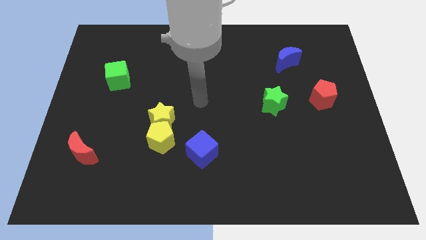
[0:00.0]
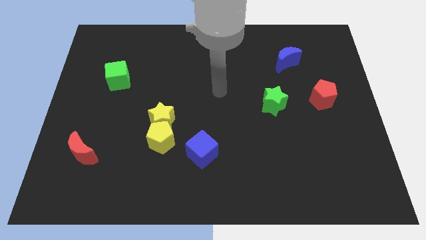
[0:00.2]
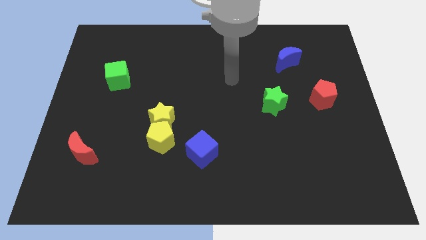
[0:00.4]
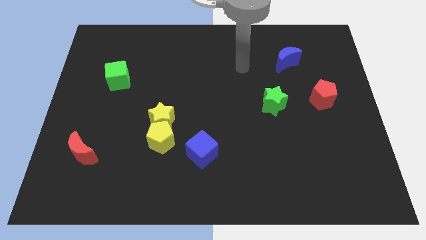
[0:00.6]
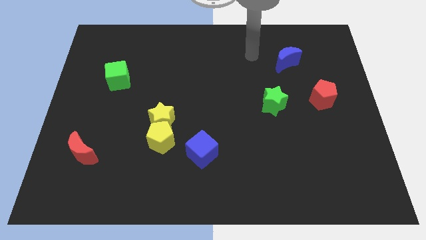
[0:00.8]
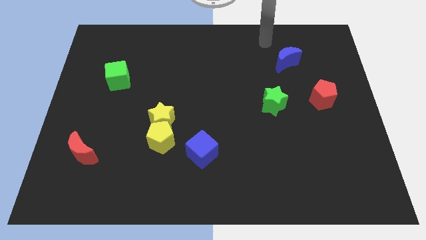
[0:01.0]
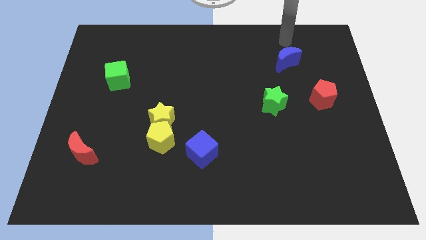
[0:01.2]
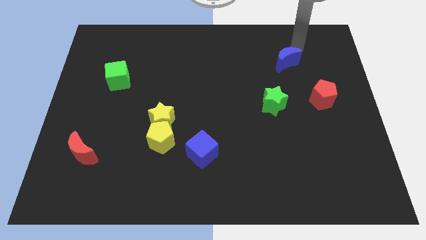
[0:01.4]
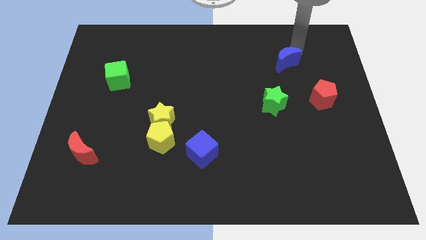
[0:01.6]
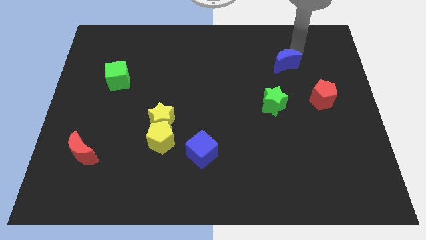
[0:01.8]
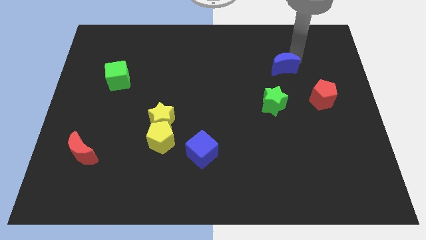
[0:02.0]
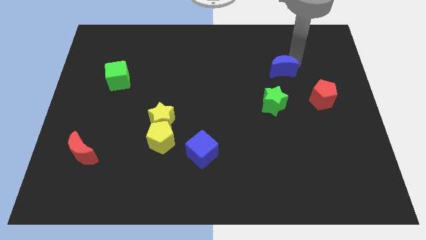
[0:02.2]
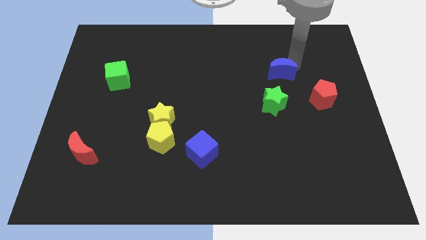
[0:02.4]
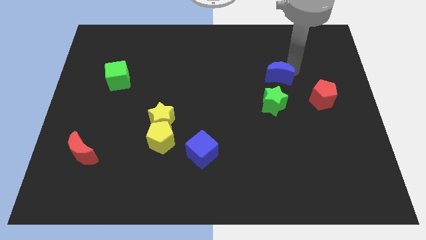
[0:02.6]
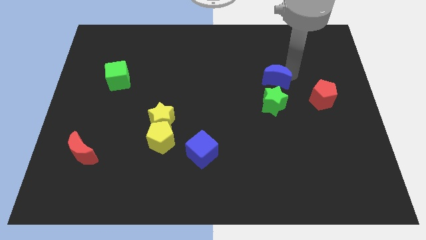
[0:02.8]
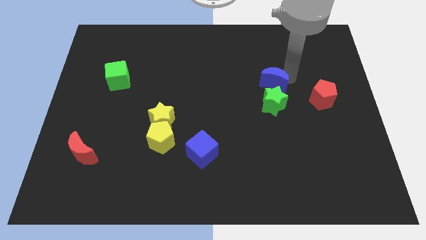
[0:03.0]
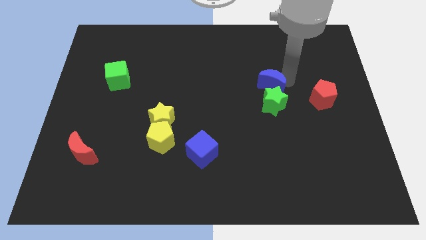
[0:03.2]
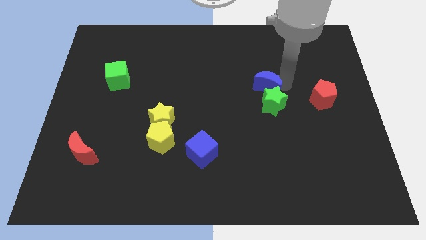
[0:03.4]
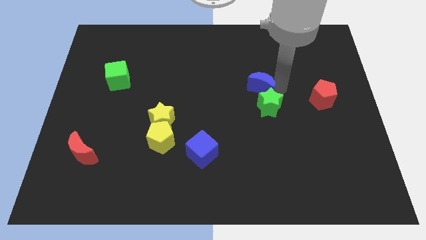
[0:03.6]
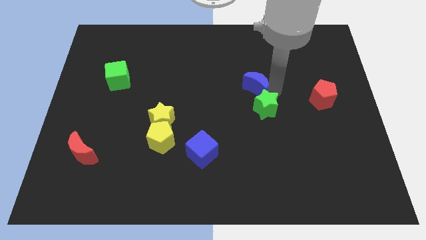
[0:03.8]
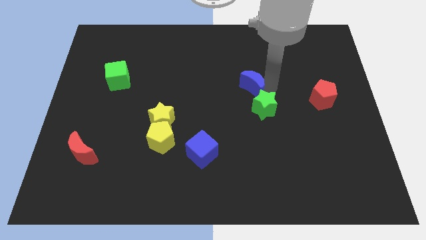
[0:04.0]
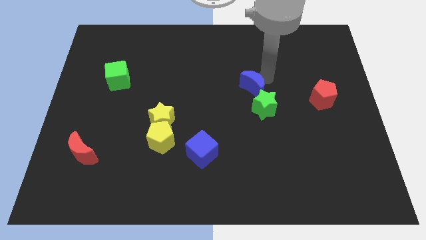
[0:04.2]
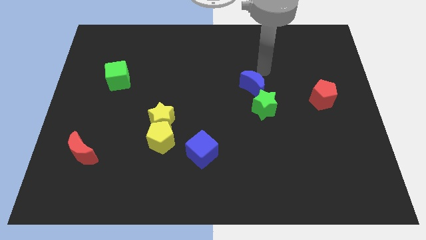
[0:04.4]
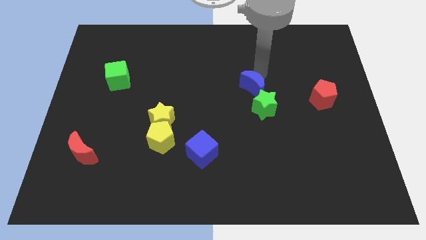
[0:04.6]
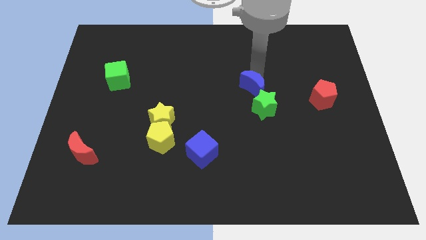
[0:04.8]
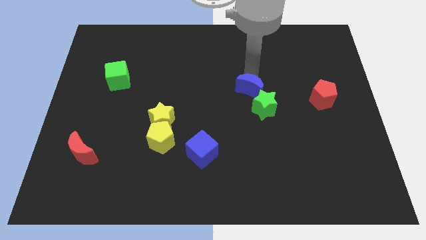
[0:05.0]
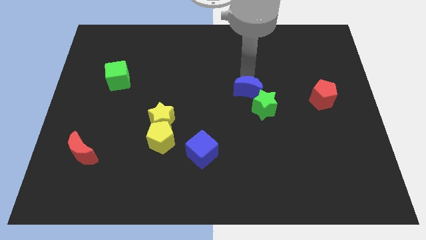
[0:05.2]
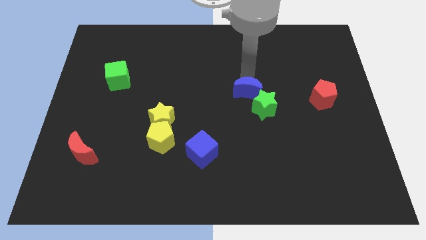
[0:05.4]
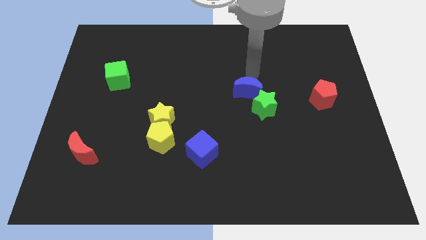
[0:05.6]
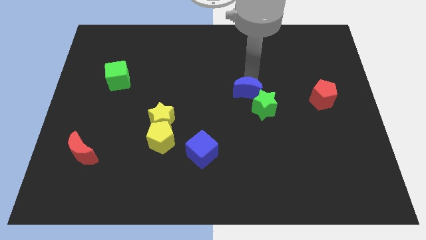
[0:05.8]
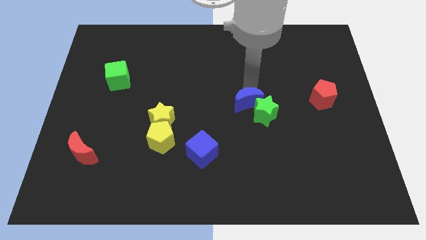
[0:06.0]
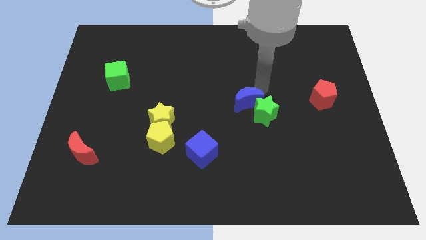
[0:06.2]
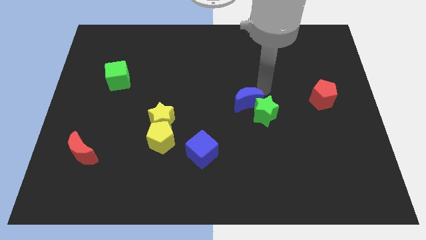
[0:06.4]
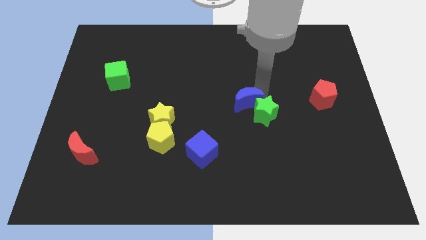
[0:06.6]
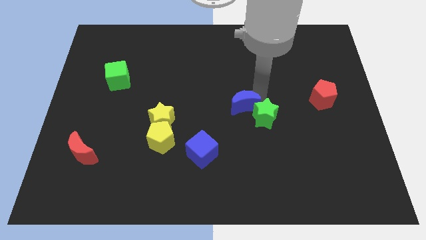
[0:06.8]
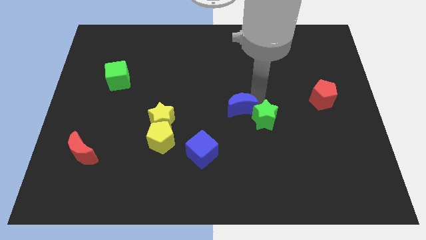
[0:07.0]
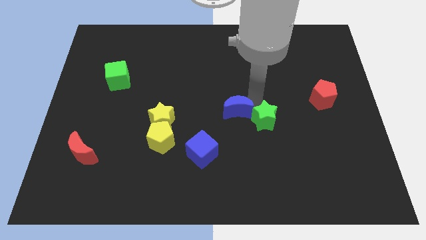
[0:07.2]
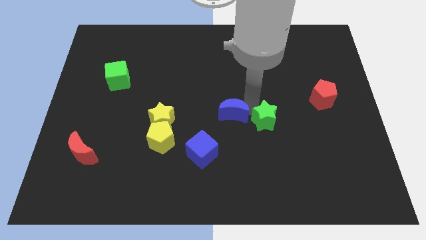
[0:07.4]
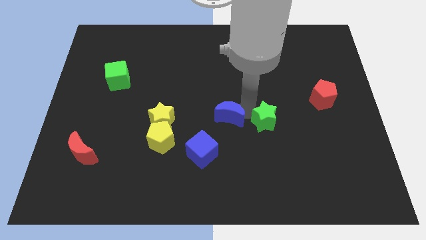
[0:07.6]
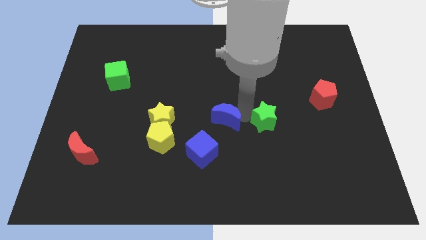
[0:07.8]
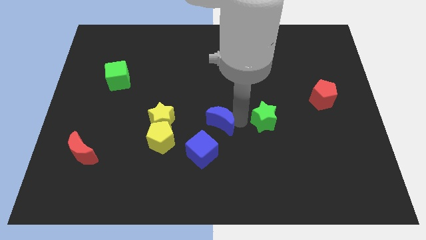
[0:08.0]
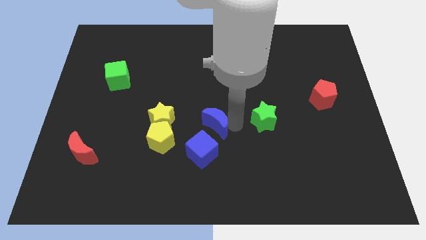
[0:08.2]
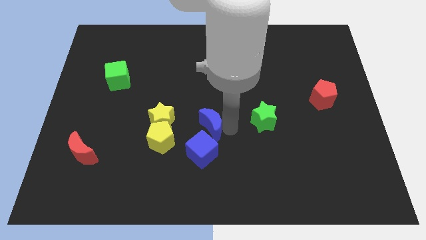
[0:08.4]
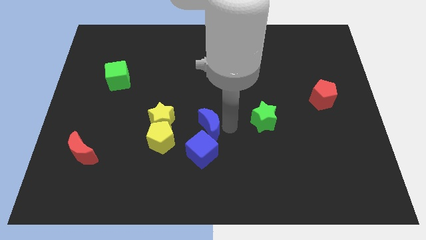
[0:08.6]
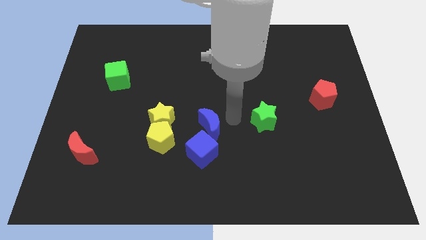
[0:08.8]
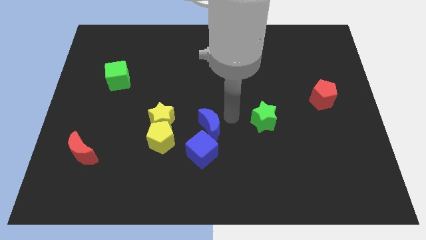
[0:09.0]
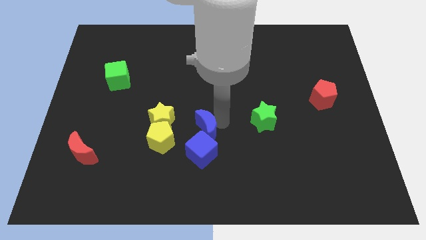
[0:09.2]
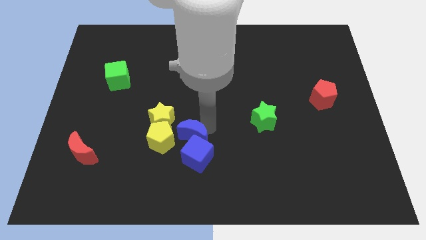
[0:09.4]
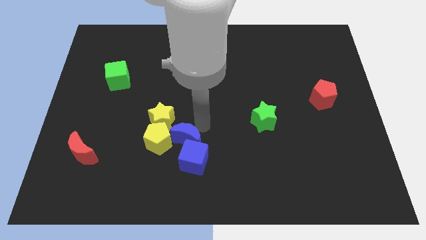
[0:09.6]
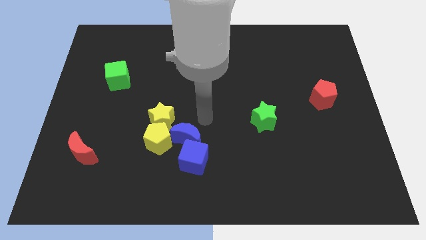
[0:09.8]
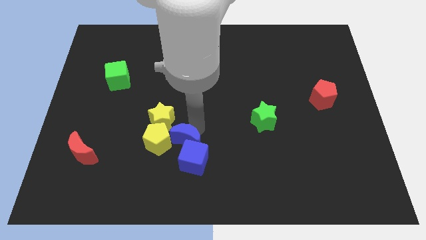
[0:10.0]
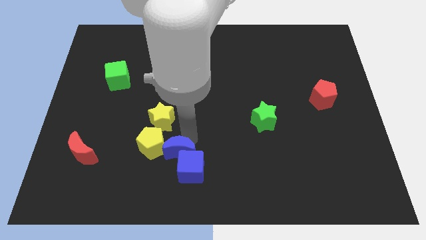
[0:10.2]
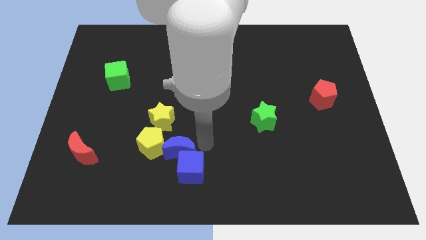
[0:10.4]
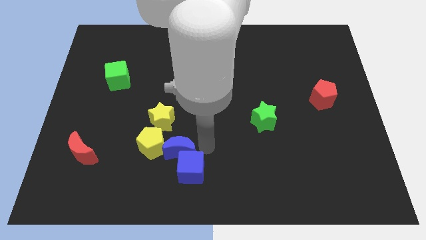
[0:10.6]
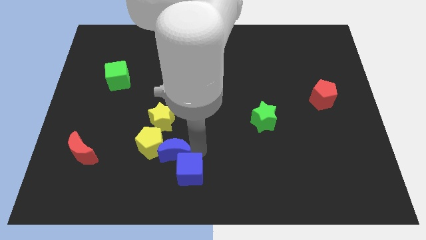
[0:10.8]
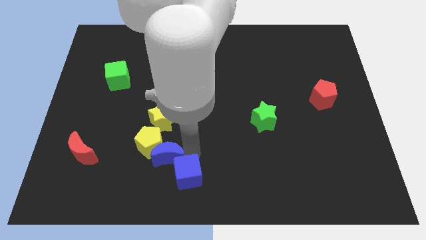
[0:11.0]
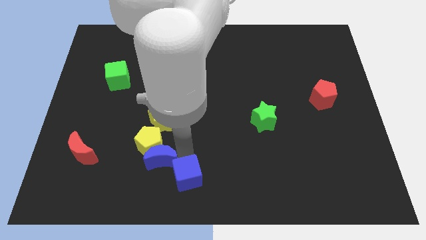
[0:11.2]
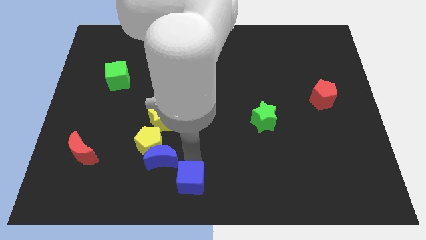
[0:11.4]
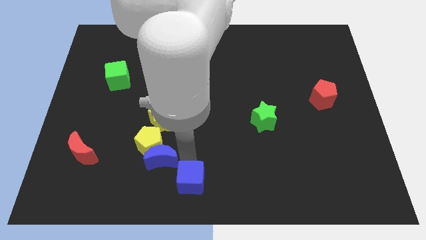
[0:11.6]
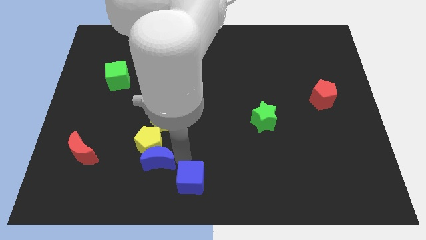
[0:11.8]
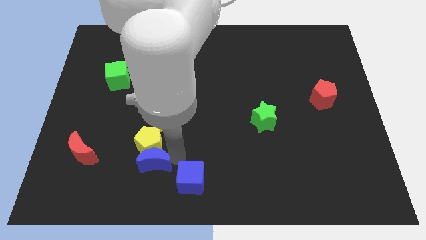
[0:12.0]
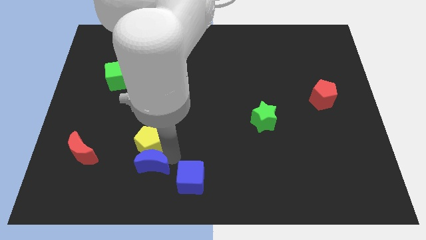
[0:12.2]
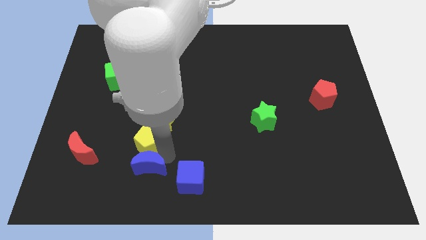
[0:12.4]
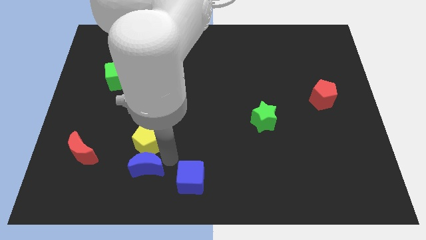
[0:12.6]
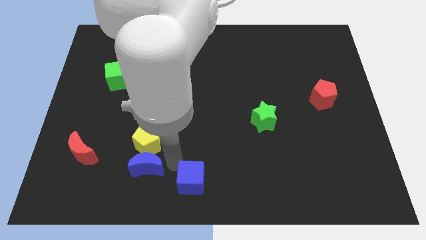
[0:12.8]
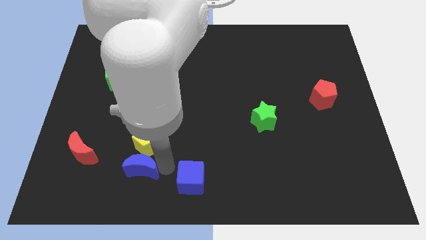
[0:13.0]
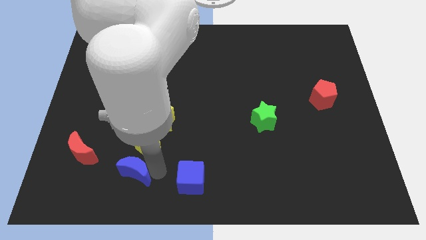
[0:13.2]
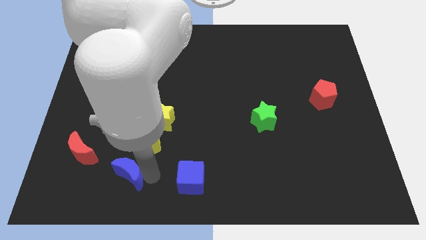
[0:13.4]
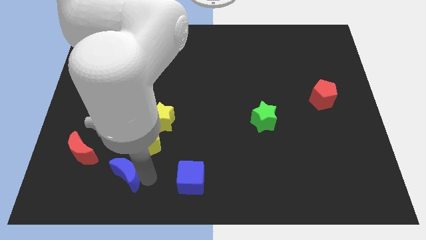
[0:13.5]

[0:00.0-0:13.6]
move the blue moon to the bottom right side of the red moon
